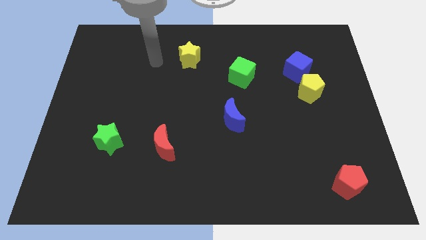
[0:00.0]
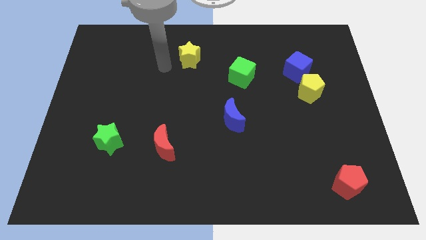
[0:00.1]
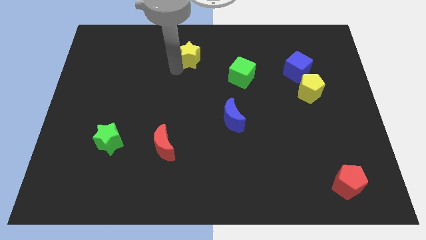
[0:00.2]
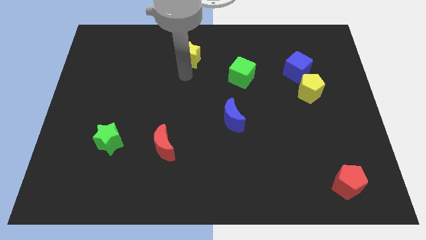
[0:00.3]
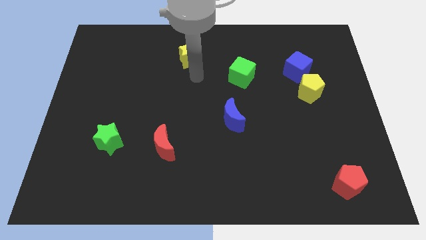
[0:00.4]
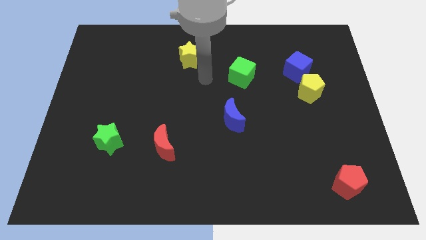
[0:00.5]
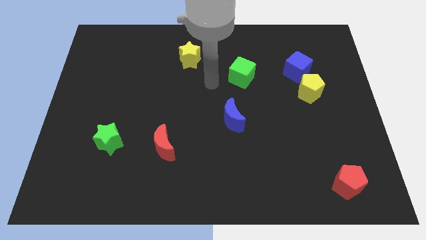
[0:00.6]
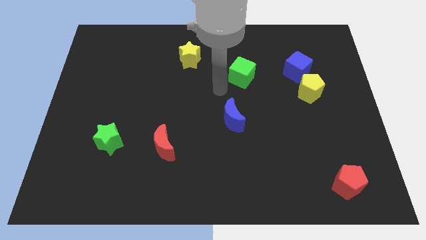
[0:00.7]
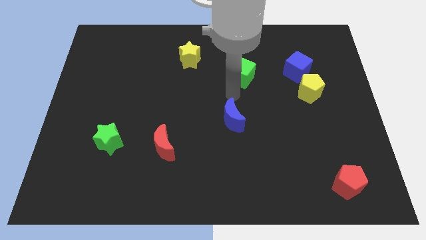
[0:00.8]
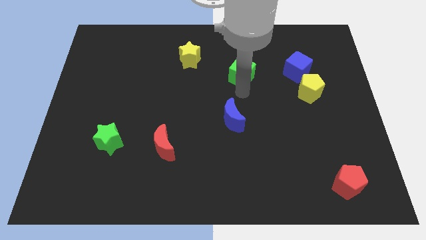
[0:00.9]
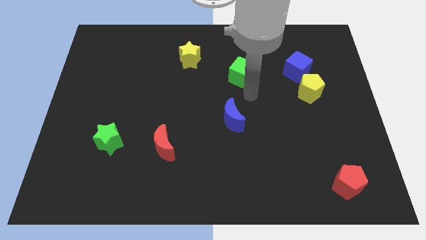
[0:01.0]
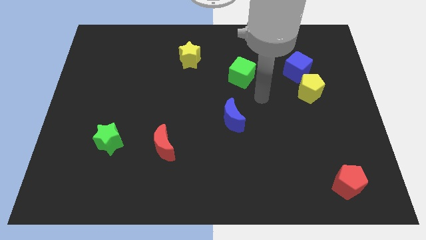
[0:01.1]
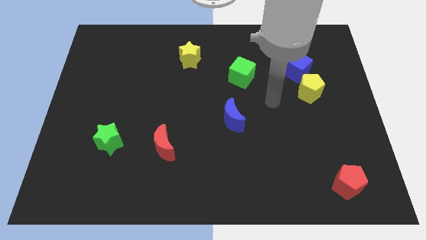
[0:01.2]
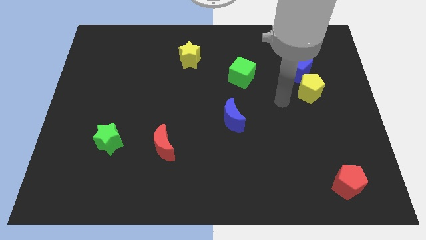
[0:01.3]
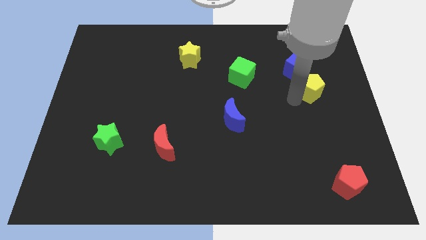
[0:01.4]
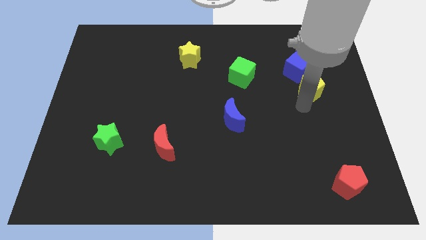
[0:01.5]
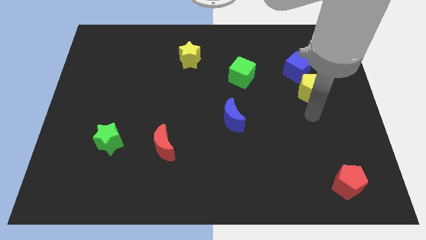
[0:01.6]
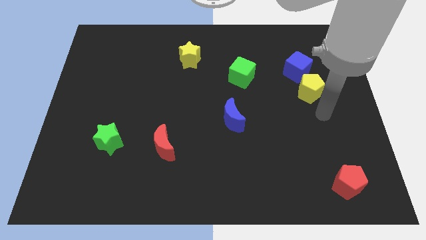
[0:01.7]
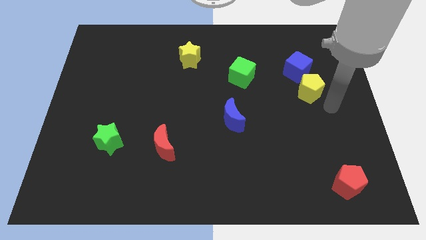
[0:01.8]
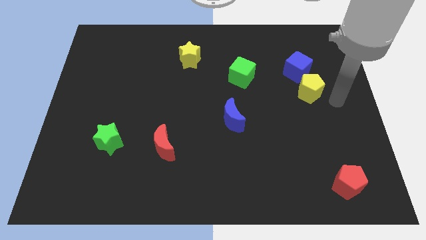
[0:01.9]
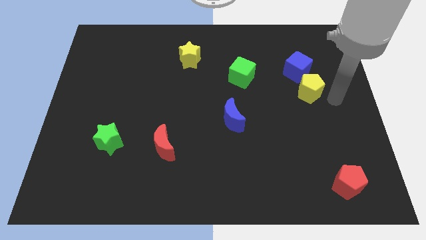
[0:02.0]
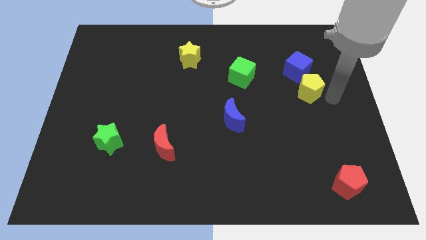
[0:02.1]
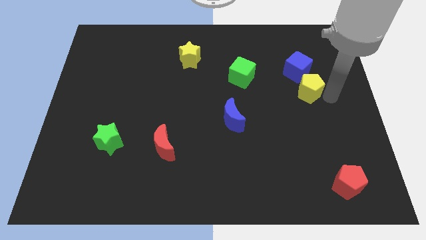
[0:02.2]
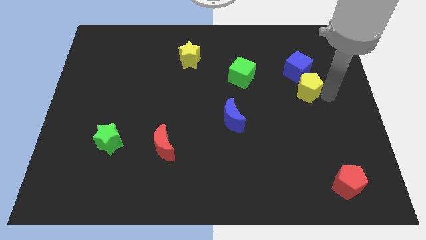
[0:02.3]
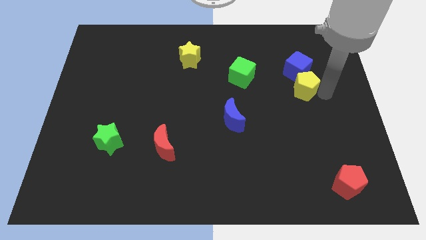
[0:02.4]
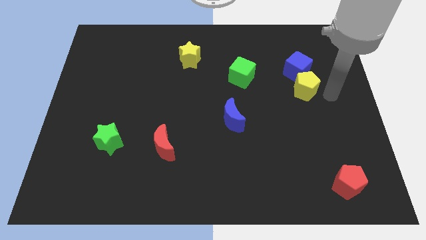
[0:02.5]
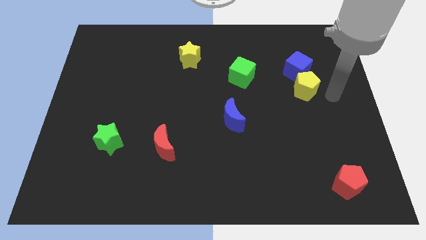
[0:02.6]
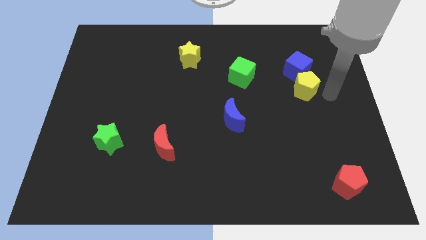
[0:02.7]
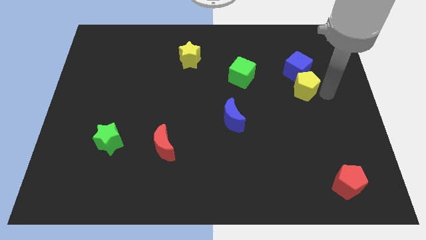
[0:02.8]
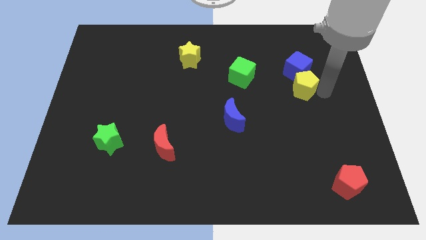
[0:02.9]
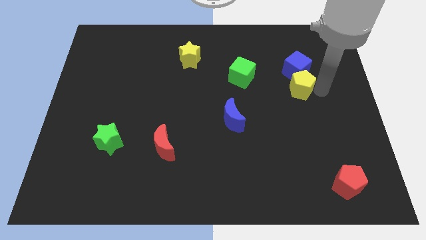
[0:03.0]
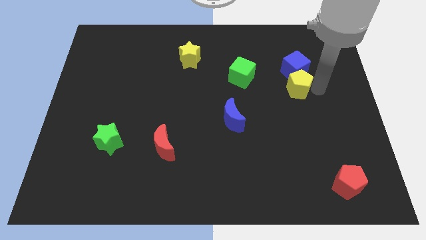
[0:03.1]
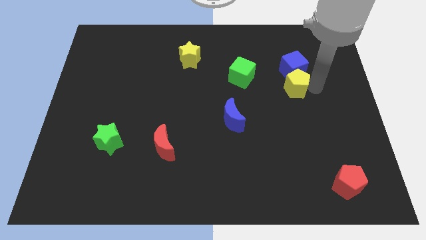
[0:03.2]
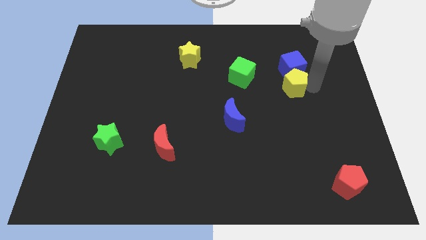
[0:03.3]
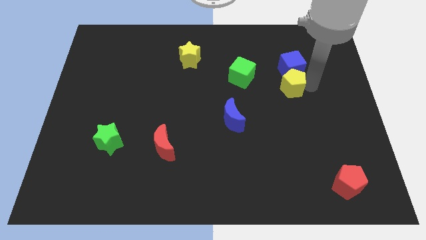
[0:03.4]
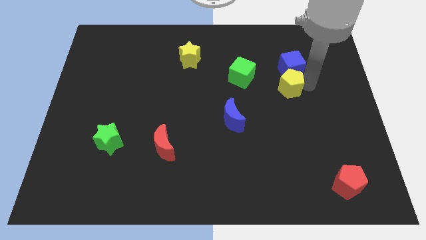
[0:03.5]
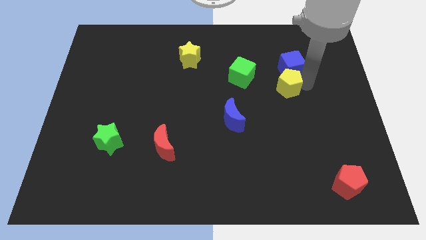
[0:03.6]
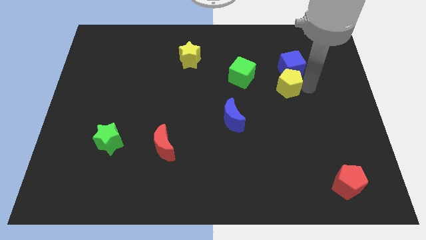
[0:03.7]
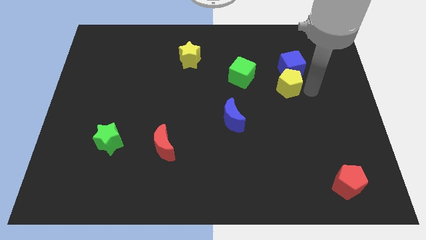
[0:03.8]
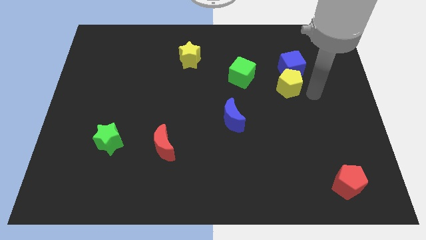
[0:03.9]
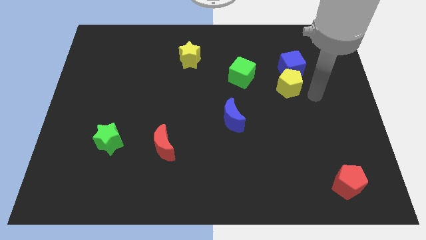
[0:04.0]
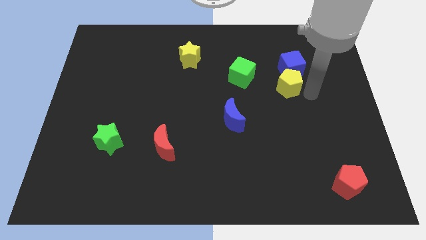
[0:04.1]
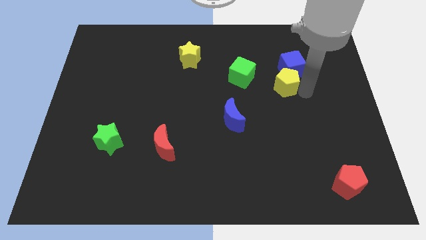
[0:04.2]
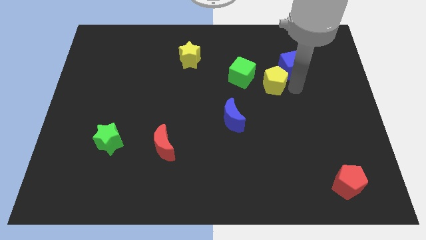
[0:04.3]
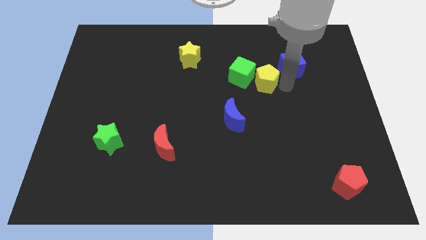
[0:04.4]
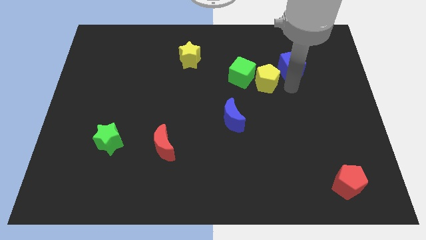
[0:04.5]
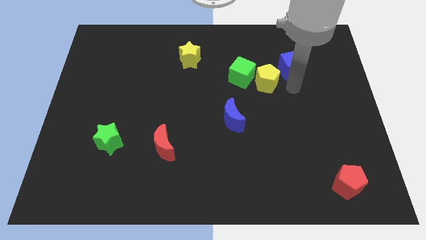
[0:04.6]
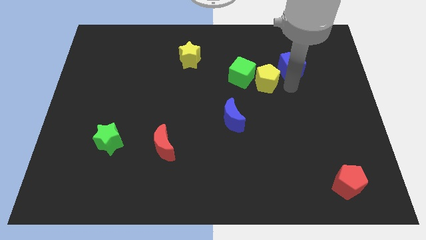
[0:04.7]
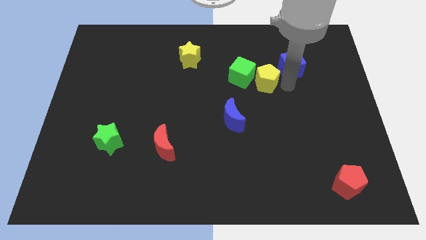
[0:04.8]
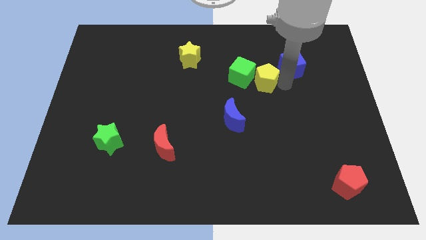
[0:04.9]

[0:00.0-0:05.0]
push the yellow pentagon next to the green cube

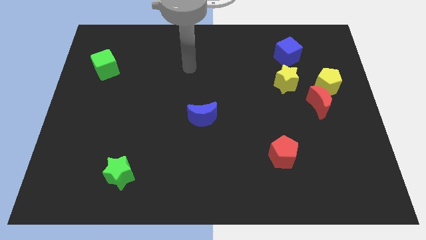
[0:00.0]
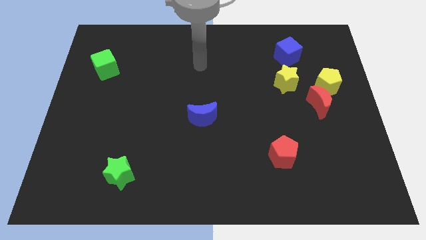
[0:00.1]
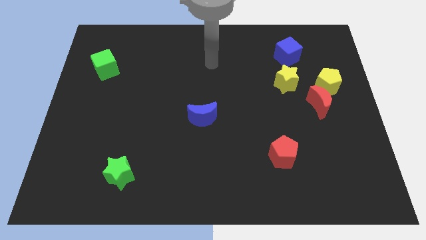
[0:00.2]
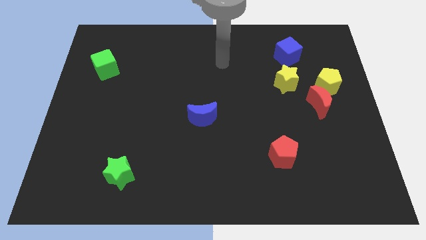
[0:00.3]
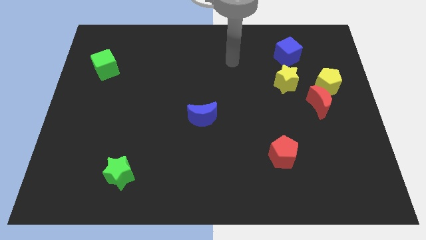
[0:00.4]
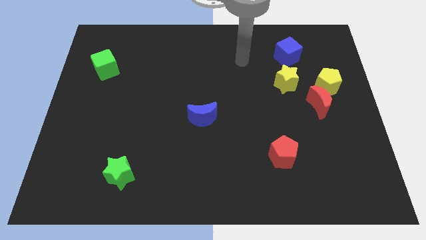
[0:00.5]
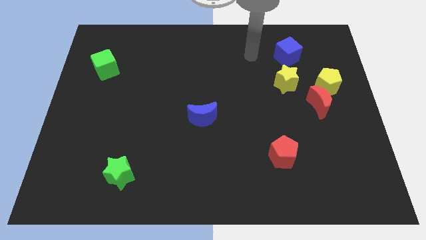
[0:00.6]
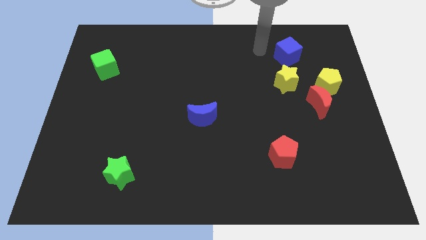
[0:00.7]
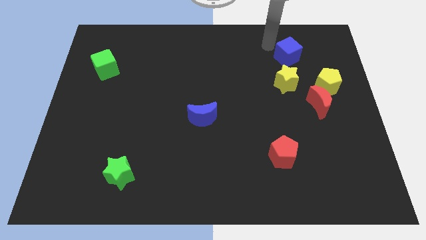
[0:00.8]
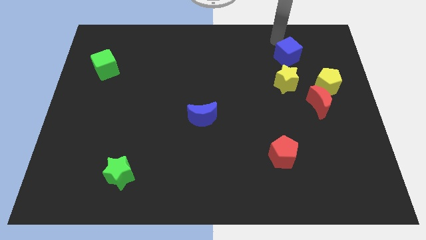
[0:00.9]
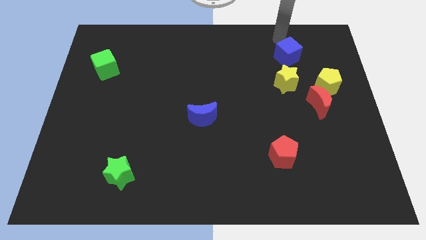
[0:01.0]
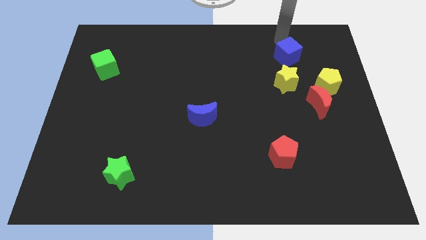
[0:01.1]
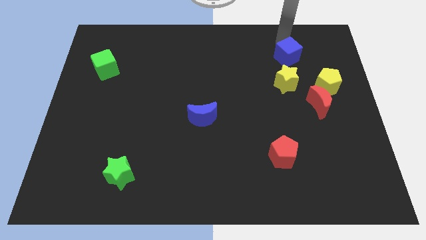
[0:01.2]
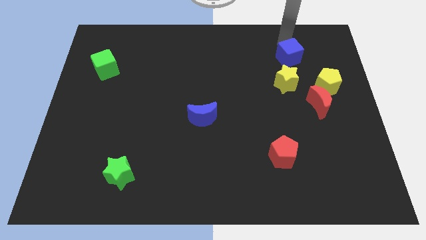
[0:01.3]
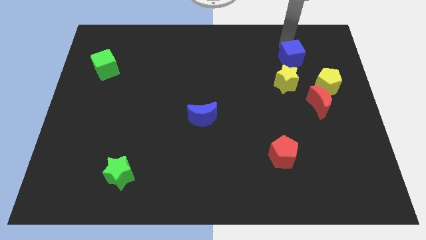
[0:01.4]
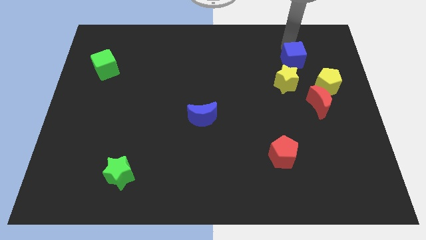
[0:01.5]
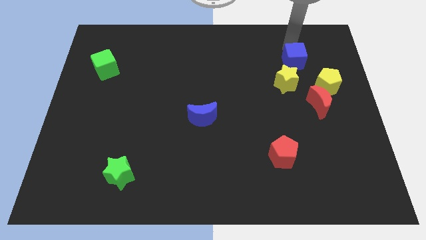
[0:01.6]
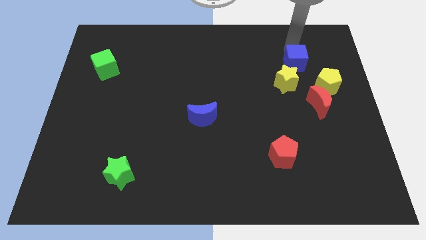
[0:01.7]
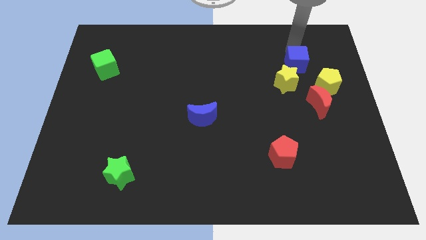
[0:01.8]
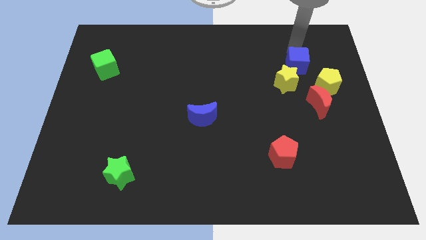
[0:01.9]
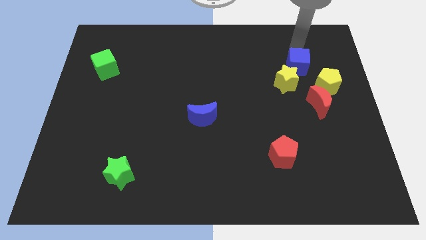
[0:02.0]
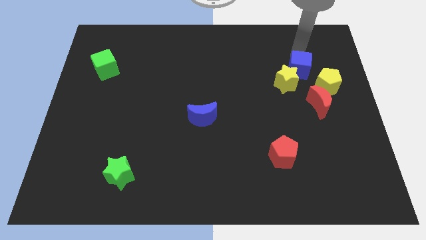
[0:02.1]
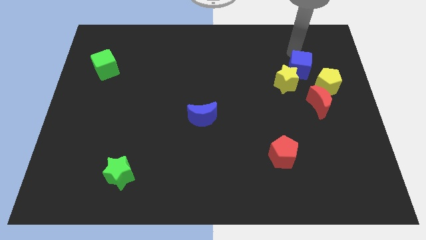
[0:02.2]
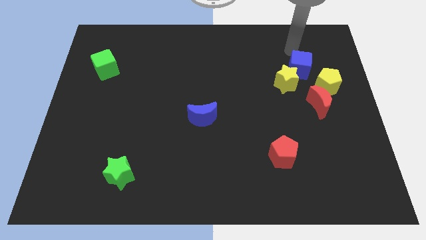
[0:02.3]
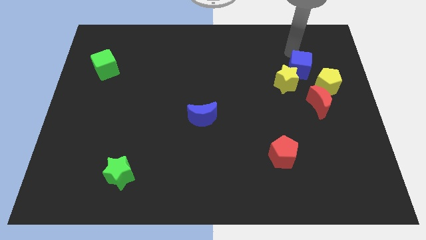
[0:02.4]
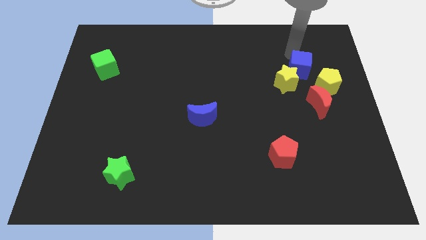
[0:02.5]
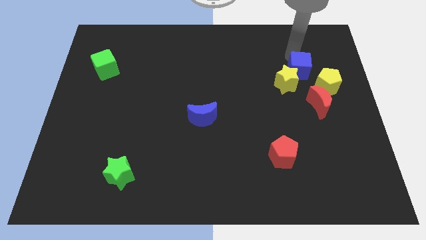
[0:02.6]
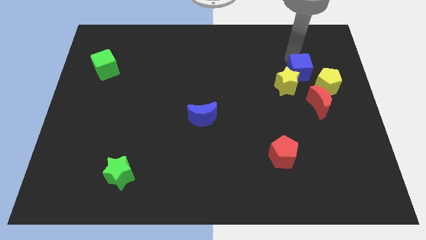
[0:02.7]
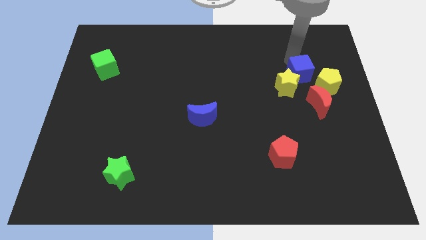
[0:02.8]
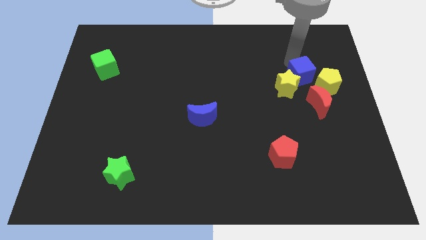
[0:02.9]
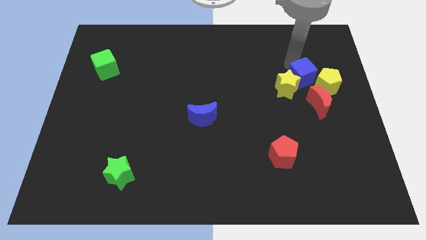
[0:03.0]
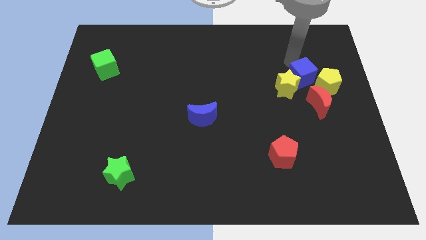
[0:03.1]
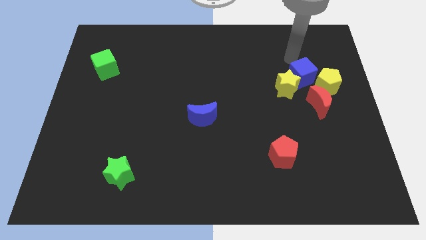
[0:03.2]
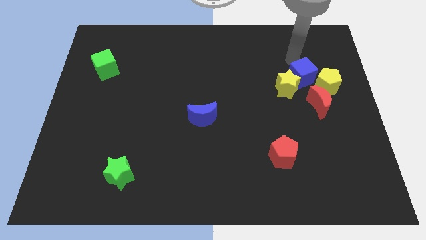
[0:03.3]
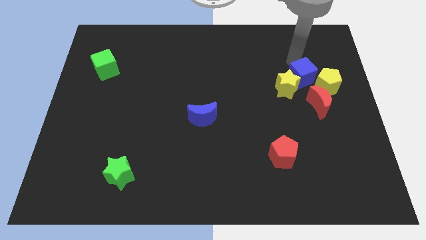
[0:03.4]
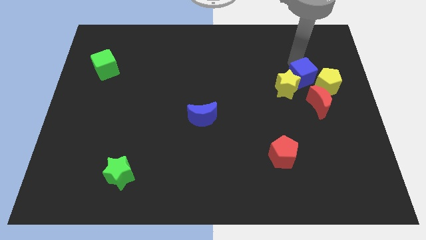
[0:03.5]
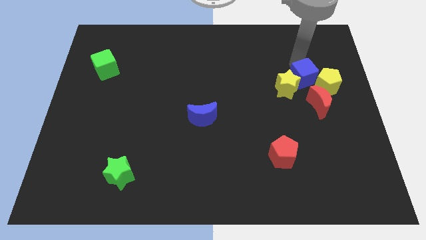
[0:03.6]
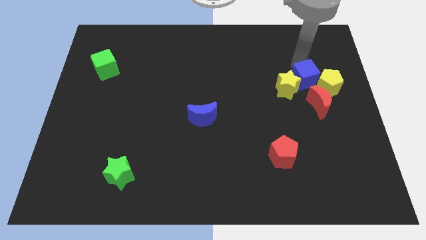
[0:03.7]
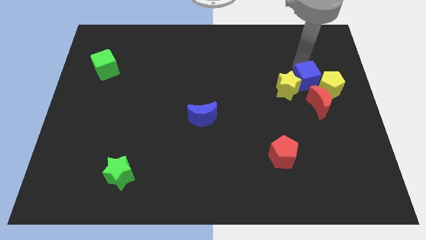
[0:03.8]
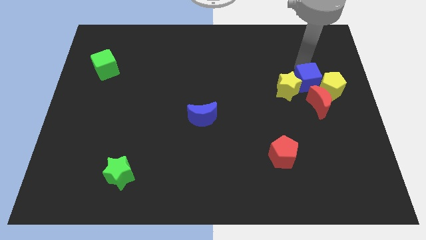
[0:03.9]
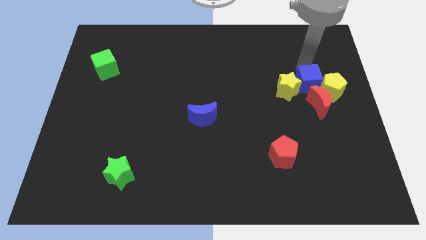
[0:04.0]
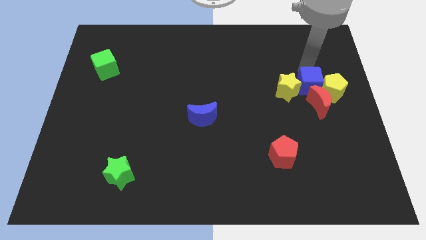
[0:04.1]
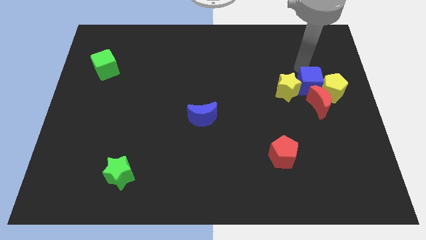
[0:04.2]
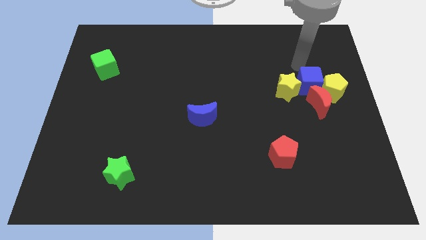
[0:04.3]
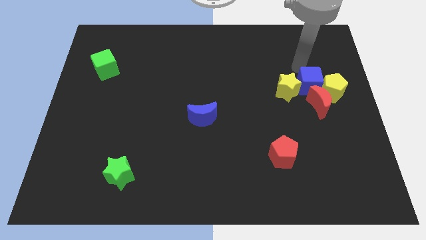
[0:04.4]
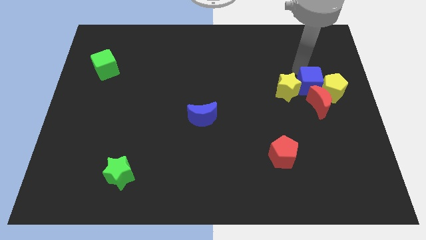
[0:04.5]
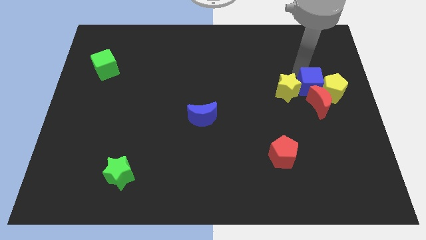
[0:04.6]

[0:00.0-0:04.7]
slide the blue cube to the red moon
